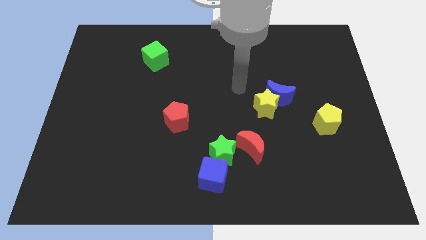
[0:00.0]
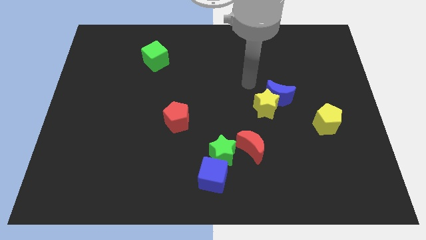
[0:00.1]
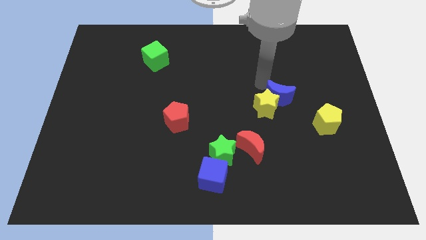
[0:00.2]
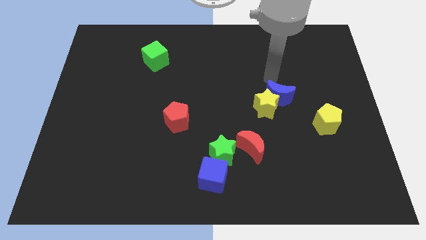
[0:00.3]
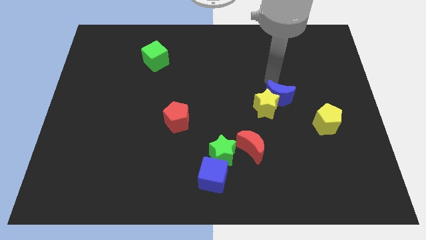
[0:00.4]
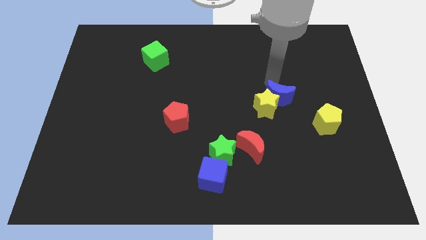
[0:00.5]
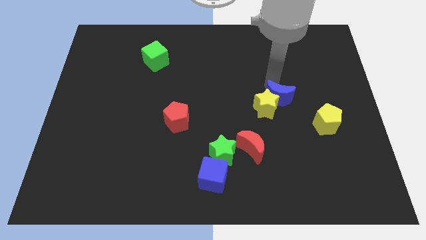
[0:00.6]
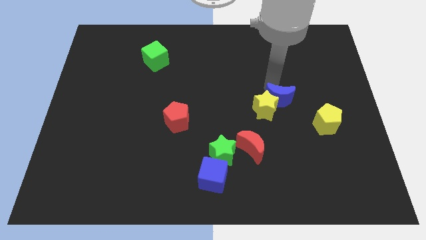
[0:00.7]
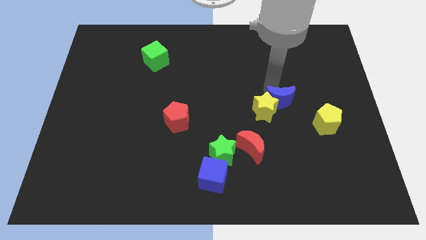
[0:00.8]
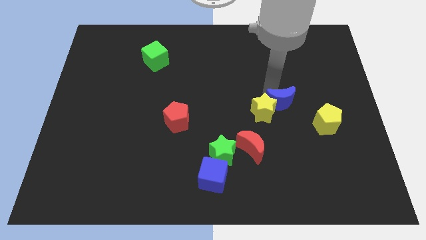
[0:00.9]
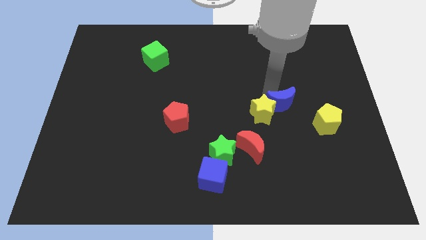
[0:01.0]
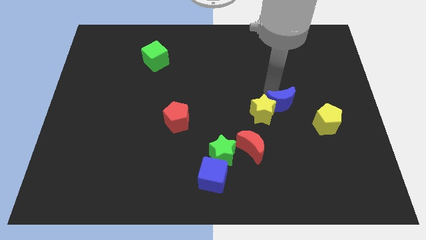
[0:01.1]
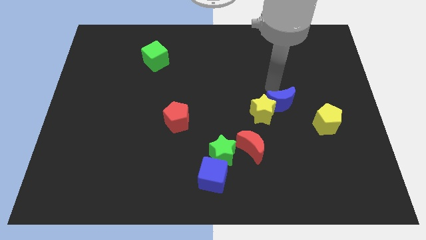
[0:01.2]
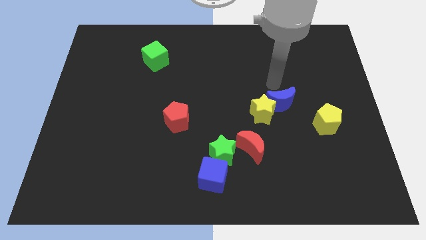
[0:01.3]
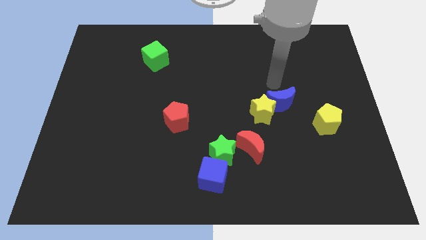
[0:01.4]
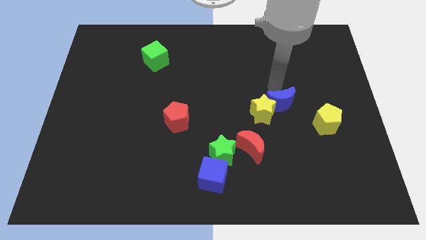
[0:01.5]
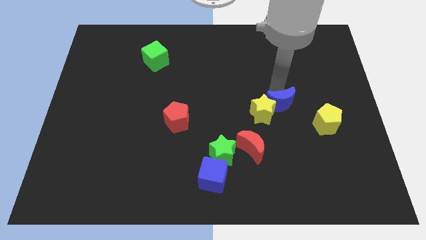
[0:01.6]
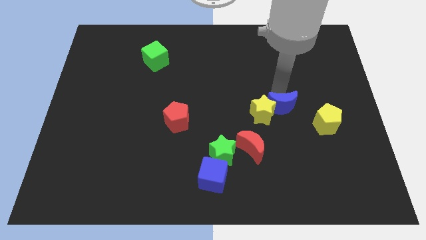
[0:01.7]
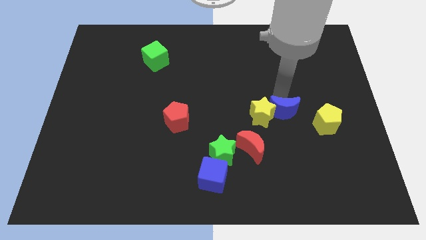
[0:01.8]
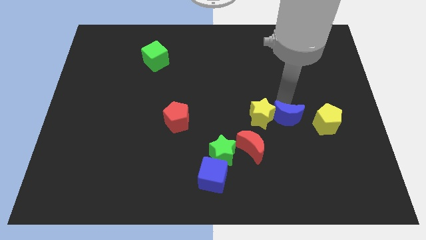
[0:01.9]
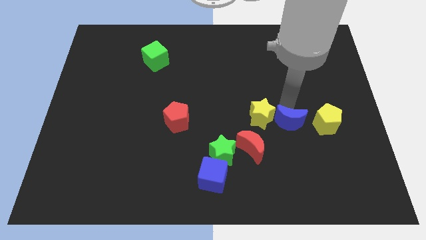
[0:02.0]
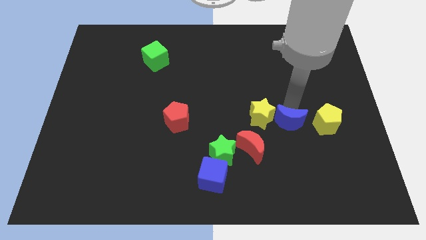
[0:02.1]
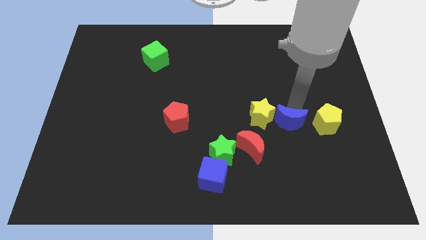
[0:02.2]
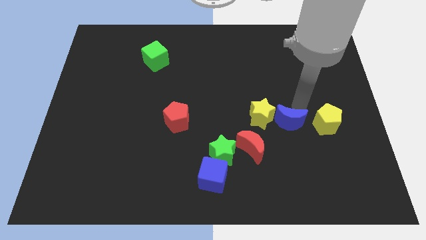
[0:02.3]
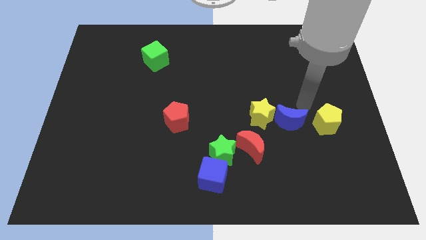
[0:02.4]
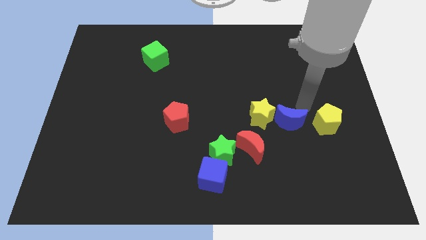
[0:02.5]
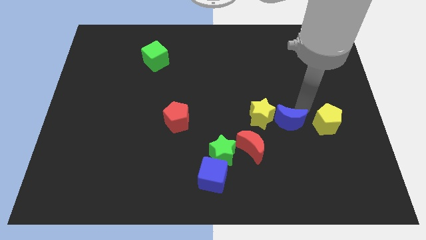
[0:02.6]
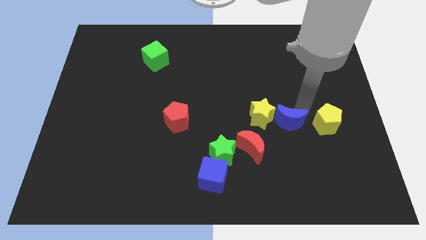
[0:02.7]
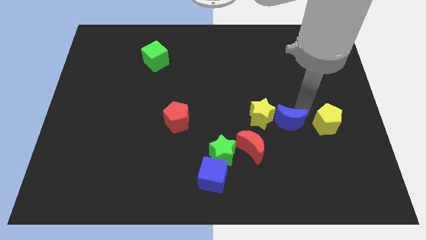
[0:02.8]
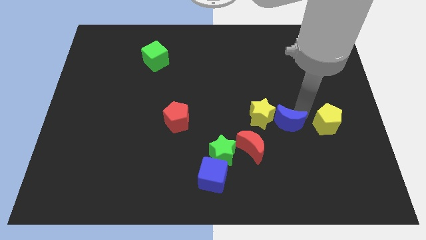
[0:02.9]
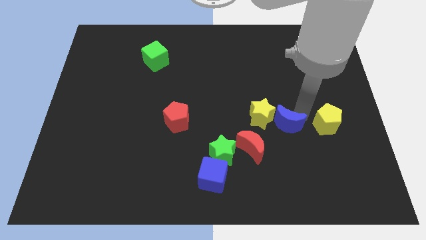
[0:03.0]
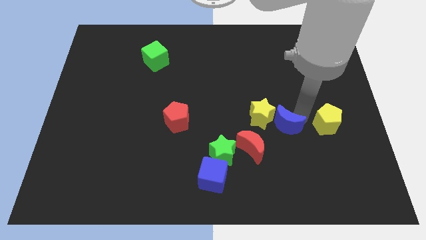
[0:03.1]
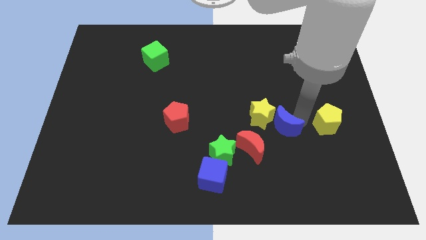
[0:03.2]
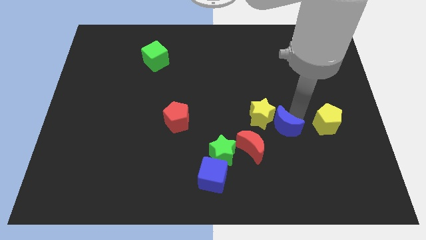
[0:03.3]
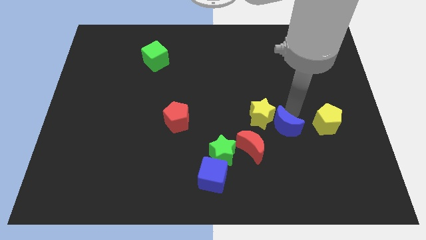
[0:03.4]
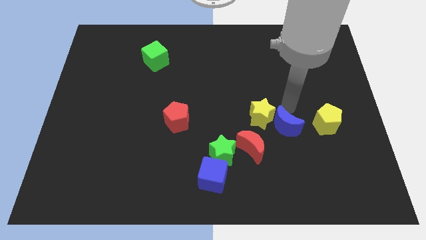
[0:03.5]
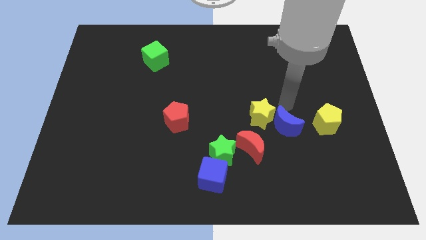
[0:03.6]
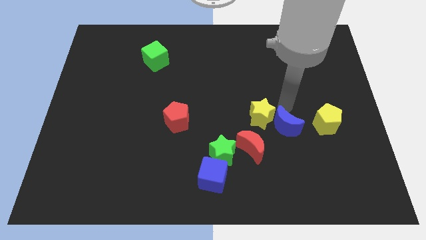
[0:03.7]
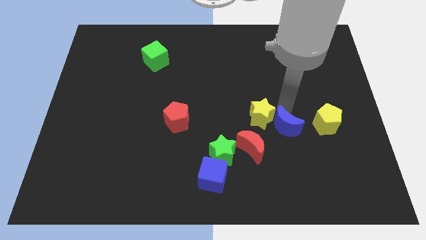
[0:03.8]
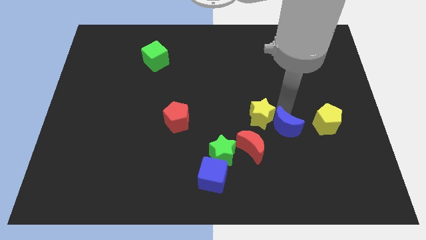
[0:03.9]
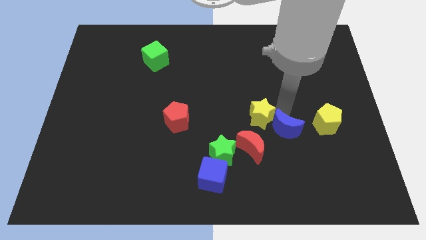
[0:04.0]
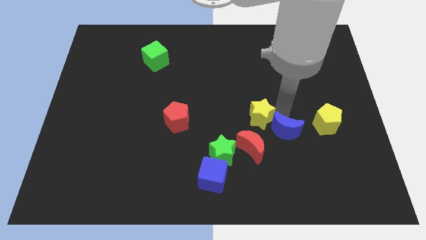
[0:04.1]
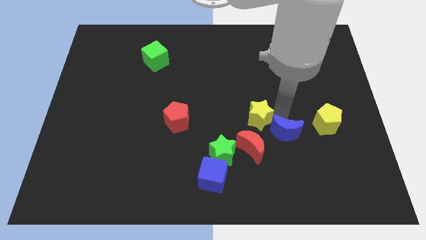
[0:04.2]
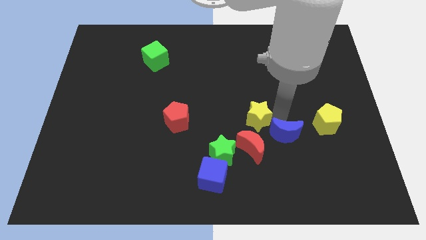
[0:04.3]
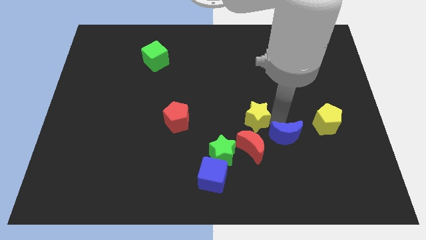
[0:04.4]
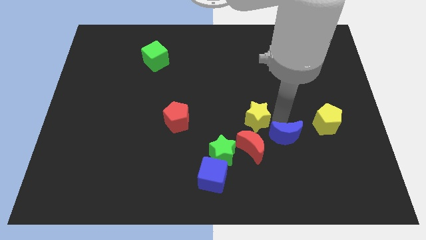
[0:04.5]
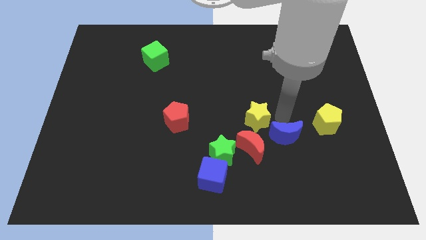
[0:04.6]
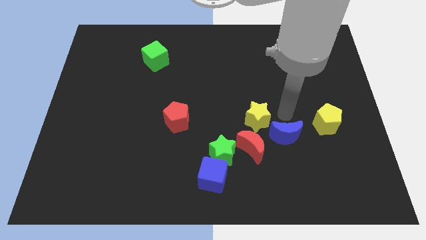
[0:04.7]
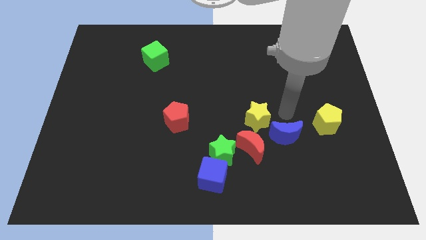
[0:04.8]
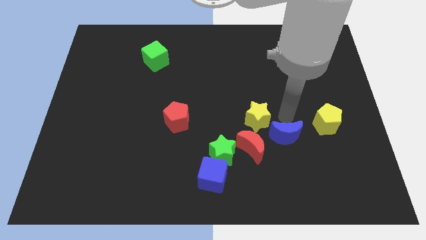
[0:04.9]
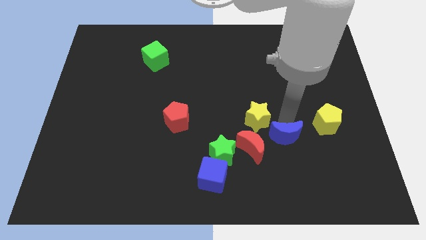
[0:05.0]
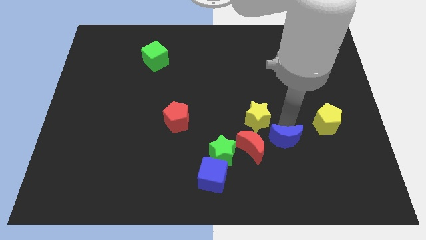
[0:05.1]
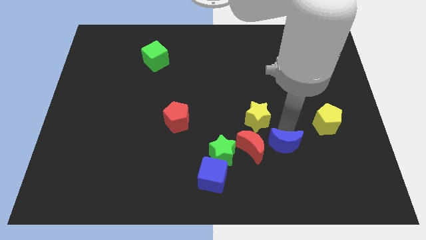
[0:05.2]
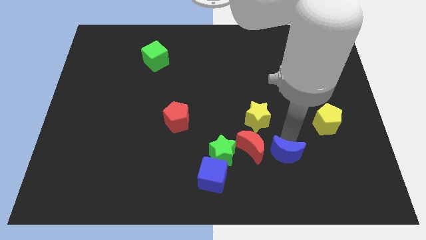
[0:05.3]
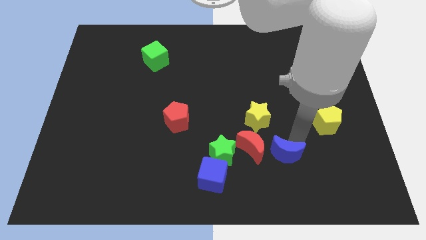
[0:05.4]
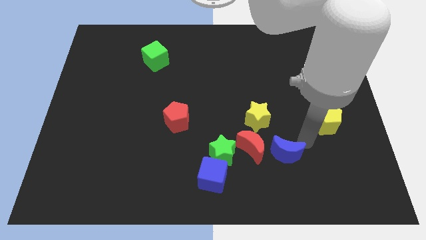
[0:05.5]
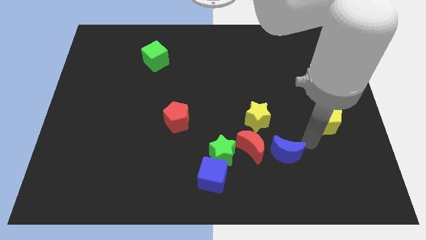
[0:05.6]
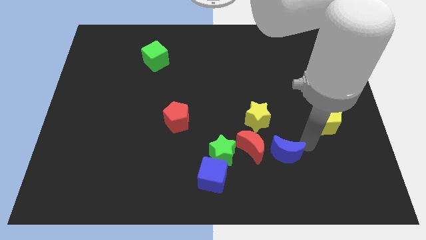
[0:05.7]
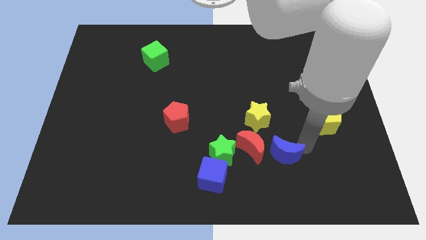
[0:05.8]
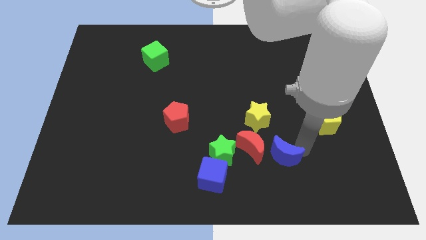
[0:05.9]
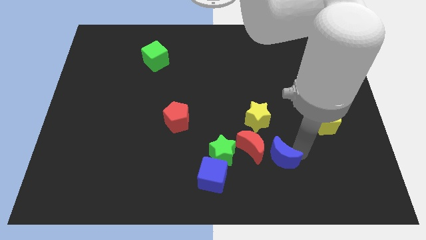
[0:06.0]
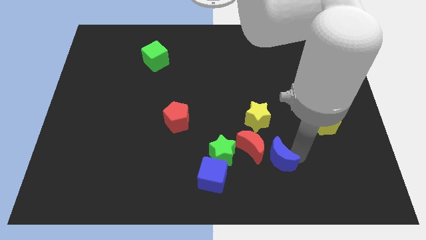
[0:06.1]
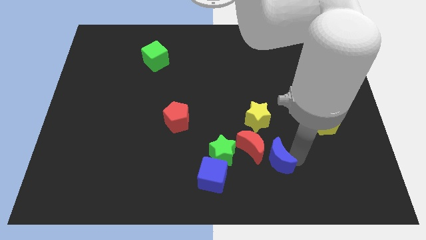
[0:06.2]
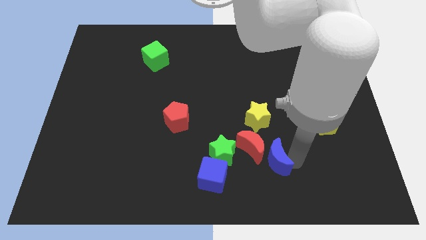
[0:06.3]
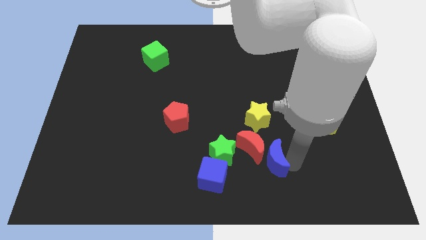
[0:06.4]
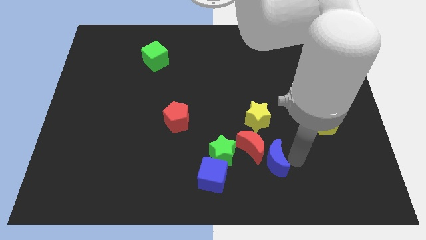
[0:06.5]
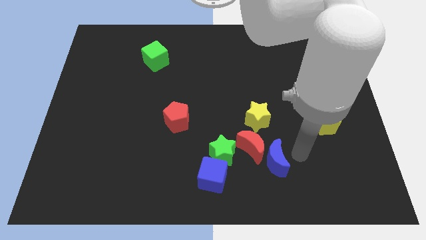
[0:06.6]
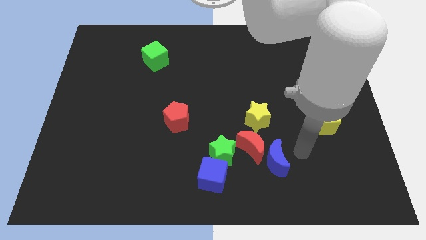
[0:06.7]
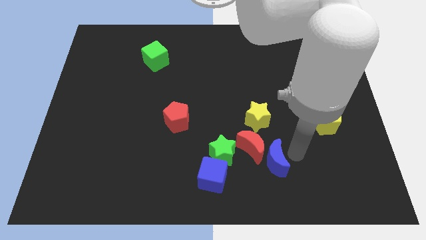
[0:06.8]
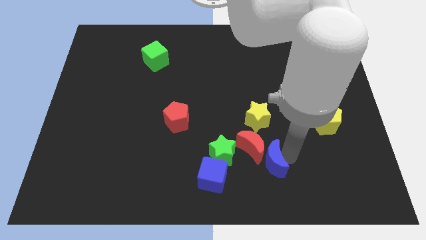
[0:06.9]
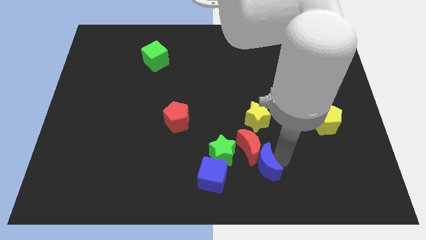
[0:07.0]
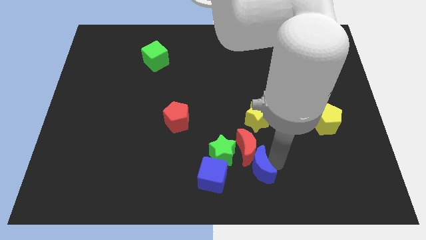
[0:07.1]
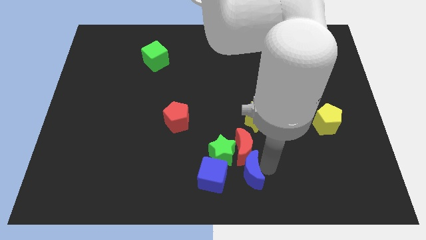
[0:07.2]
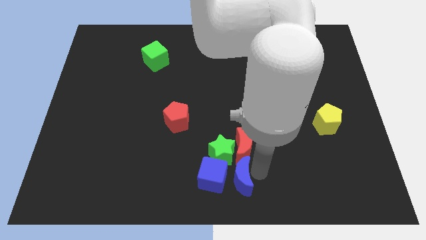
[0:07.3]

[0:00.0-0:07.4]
push the blue moon towards the blue cube
